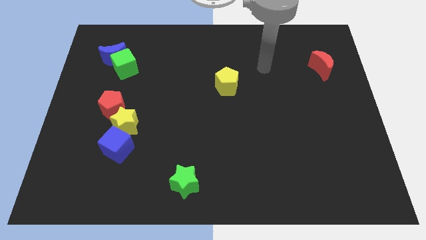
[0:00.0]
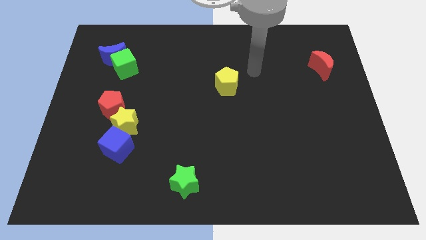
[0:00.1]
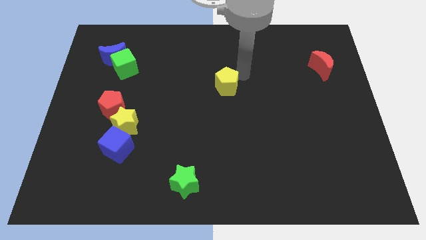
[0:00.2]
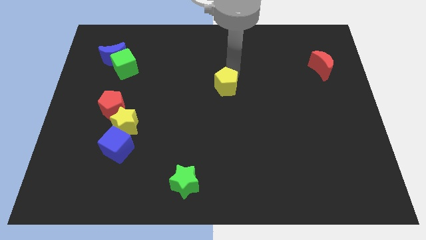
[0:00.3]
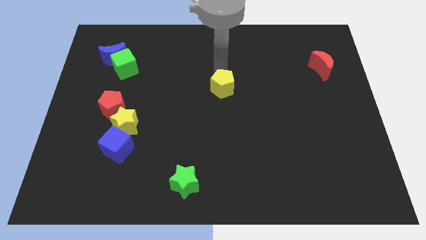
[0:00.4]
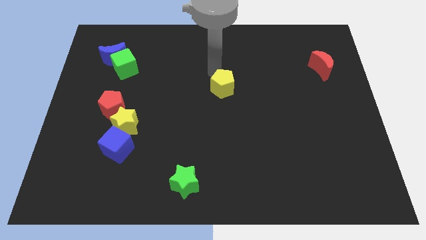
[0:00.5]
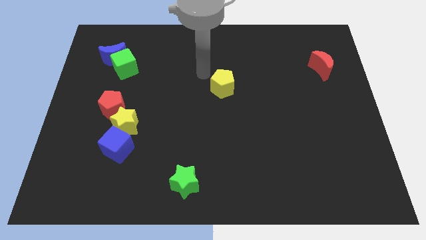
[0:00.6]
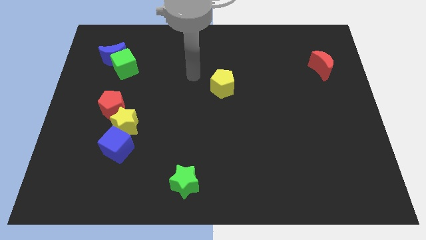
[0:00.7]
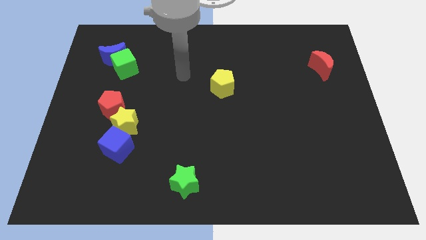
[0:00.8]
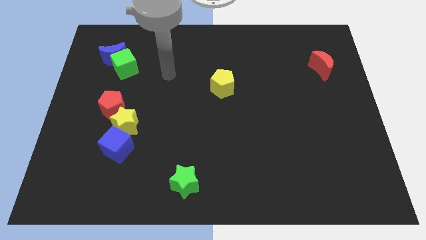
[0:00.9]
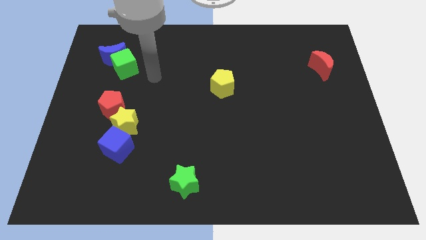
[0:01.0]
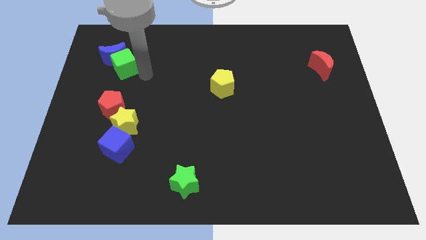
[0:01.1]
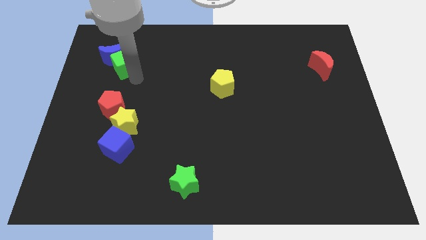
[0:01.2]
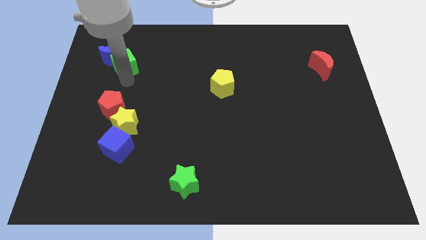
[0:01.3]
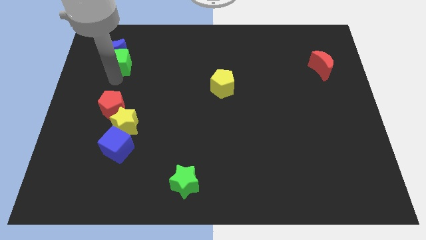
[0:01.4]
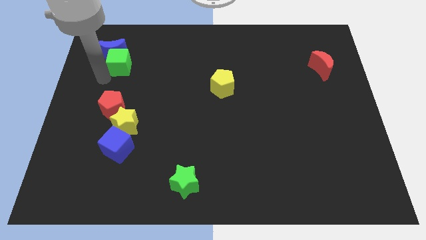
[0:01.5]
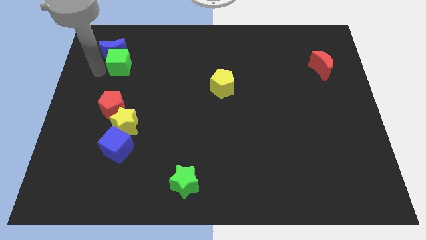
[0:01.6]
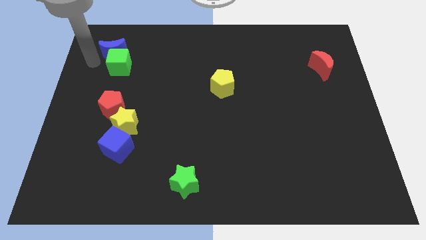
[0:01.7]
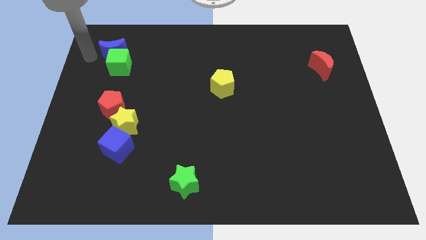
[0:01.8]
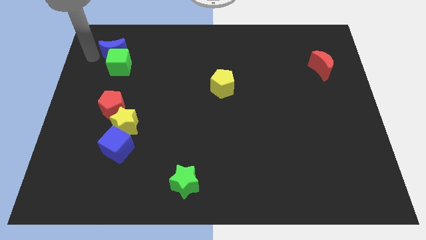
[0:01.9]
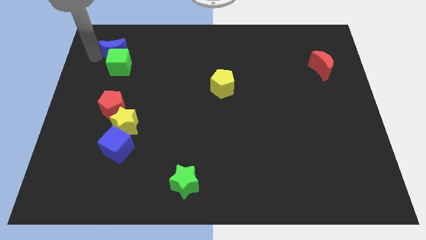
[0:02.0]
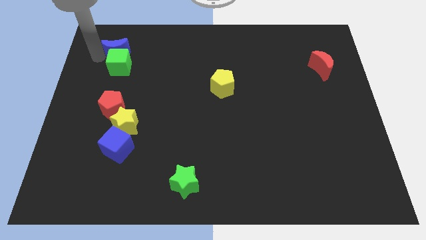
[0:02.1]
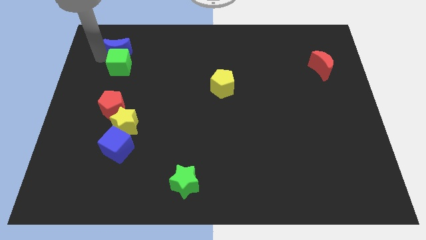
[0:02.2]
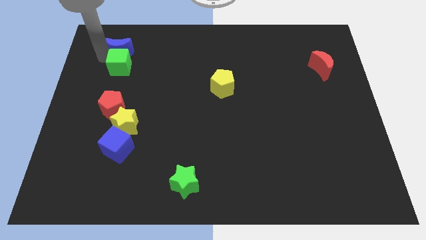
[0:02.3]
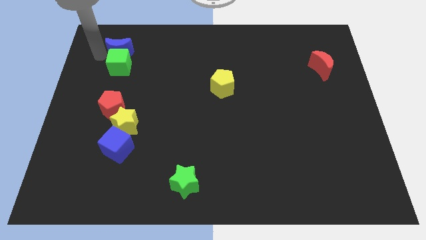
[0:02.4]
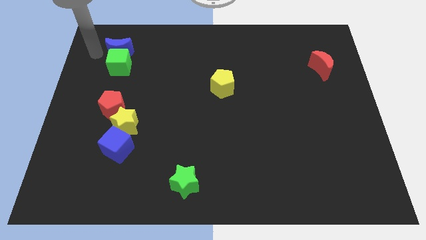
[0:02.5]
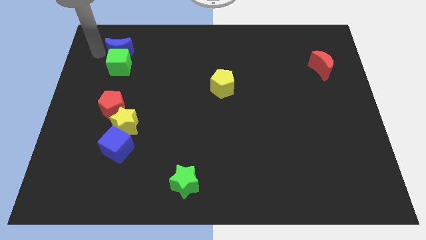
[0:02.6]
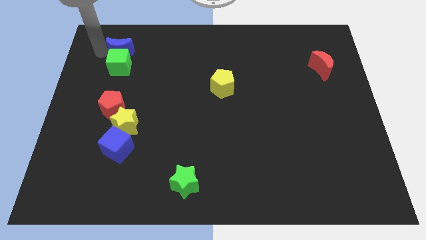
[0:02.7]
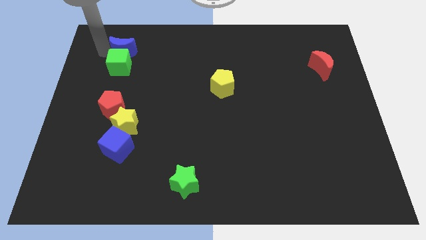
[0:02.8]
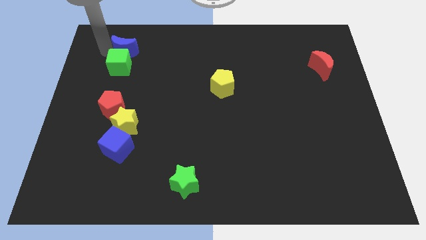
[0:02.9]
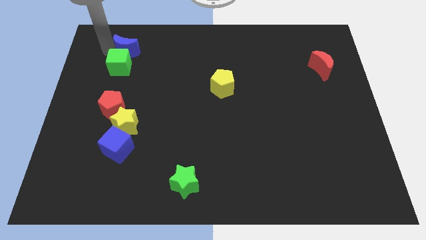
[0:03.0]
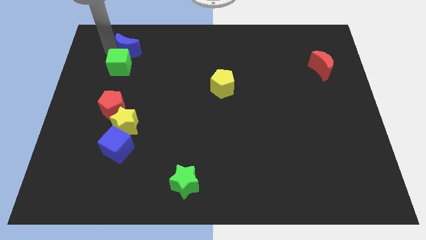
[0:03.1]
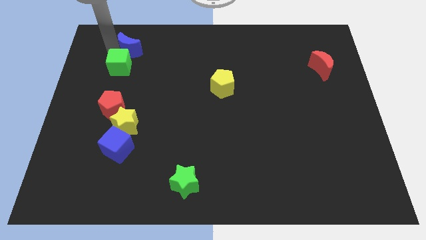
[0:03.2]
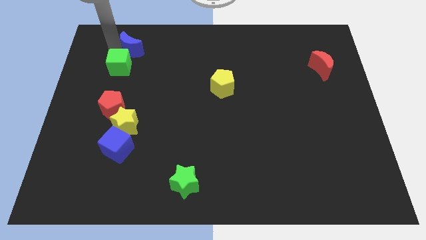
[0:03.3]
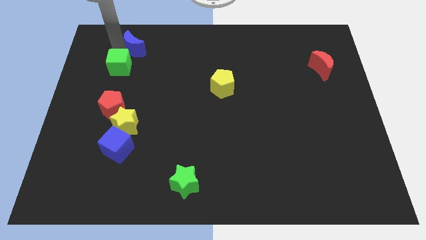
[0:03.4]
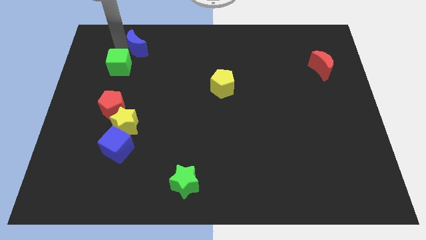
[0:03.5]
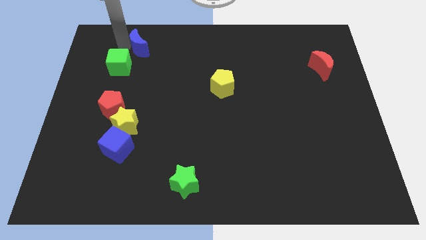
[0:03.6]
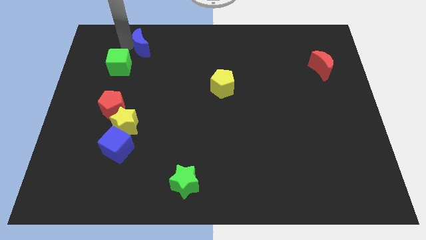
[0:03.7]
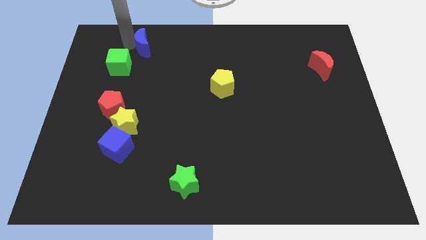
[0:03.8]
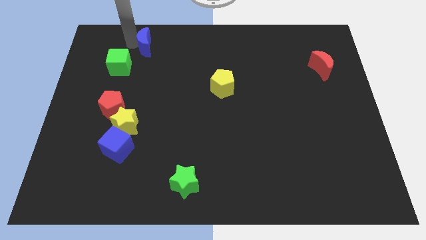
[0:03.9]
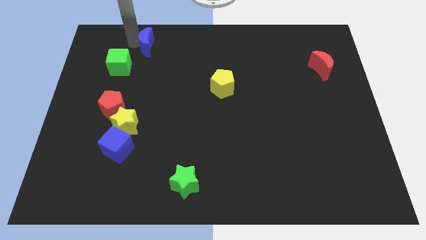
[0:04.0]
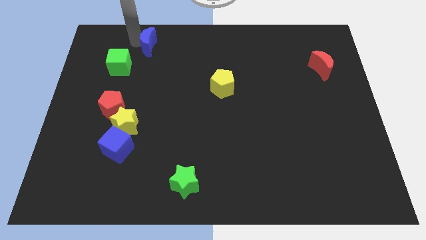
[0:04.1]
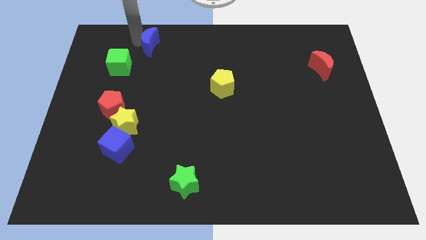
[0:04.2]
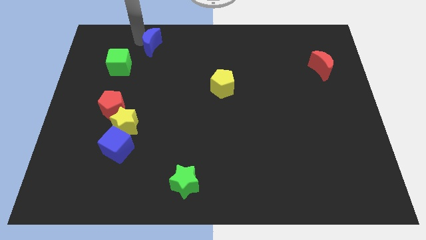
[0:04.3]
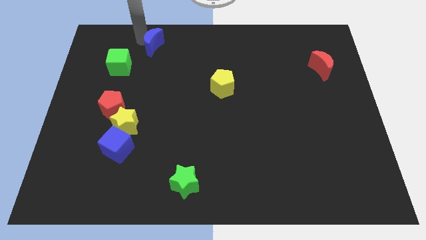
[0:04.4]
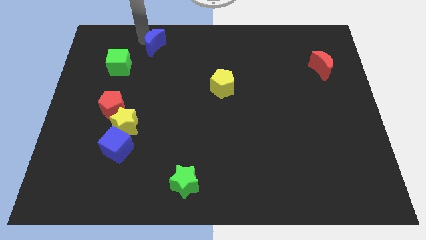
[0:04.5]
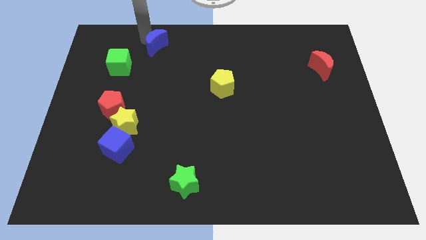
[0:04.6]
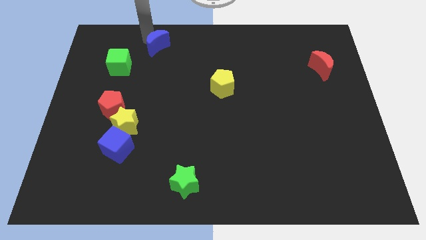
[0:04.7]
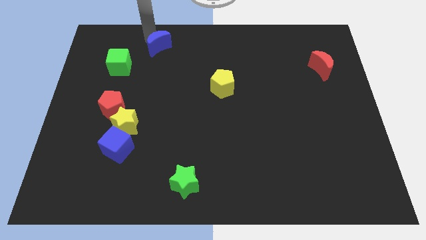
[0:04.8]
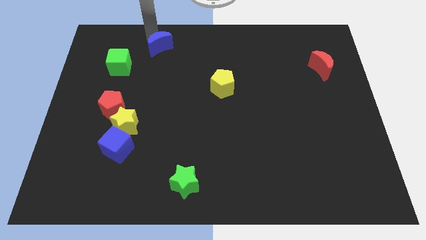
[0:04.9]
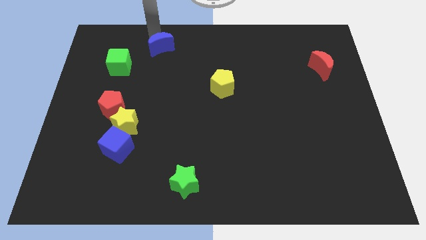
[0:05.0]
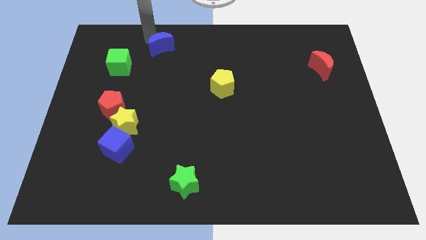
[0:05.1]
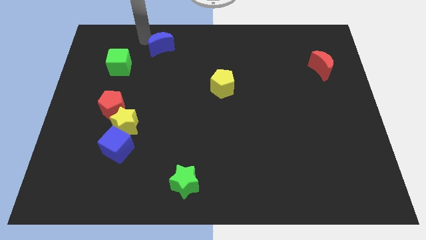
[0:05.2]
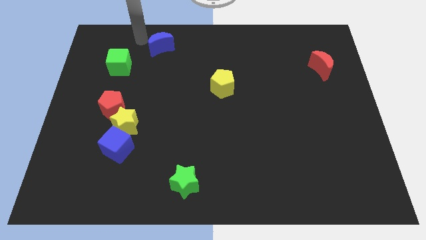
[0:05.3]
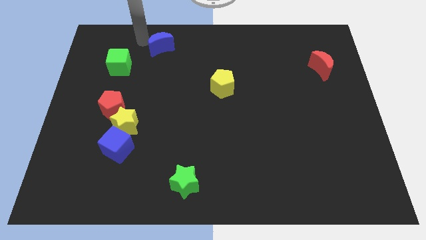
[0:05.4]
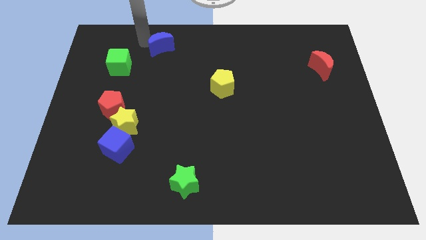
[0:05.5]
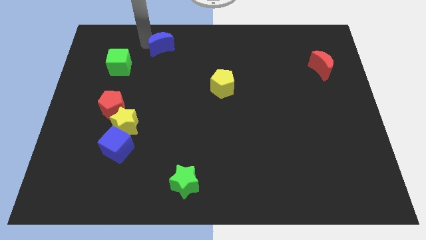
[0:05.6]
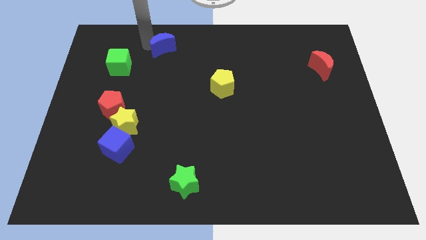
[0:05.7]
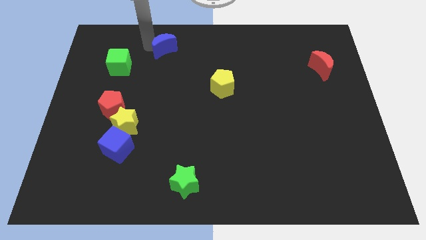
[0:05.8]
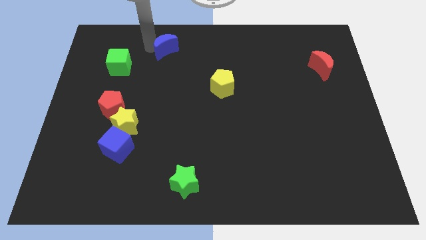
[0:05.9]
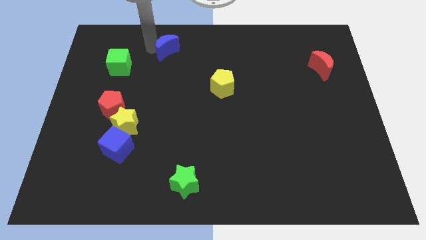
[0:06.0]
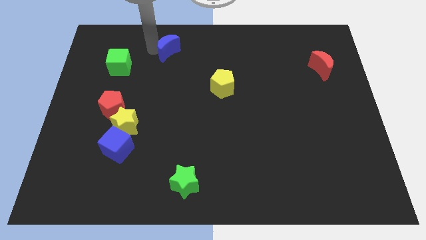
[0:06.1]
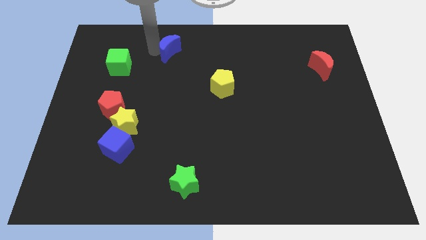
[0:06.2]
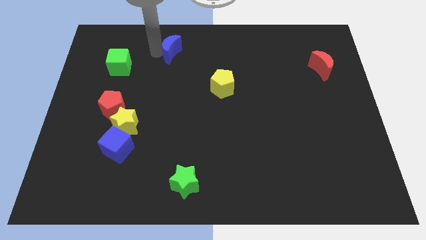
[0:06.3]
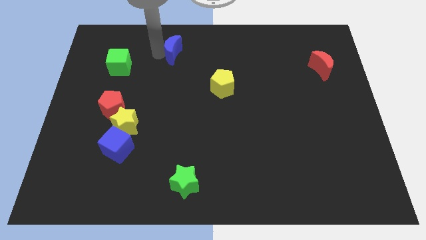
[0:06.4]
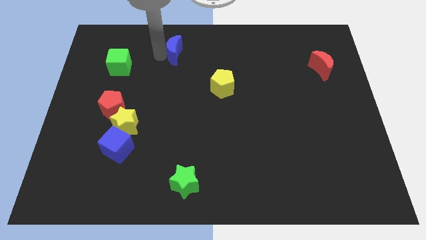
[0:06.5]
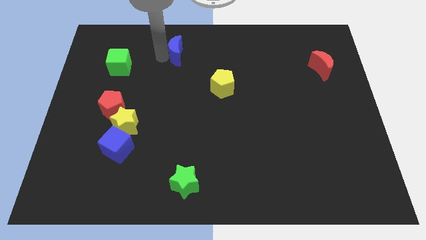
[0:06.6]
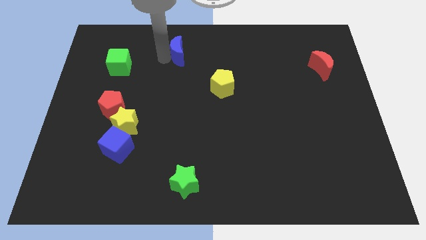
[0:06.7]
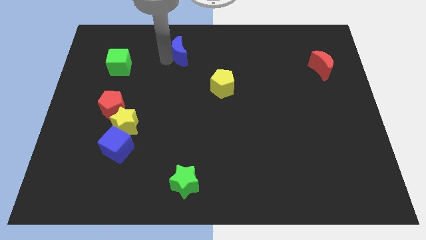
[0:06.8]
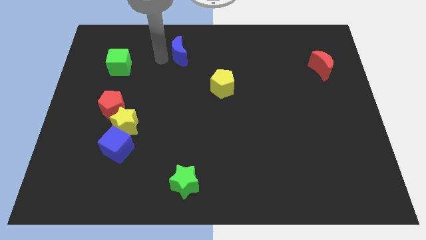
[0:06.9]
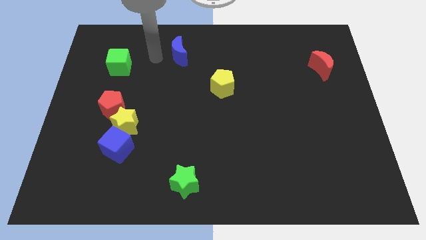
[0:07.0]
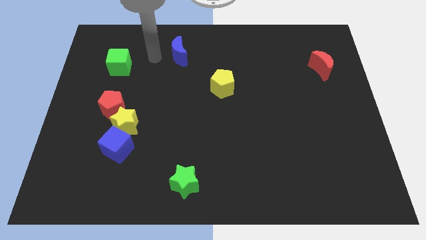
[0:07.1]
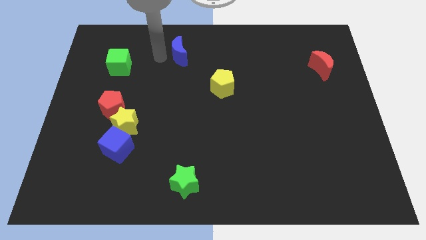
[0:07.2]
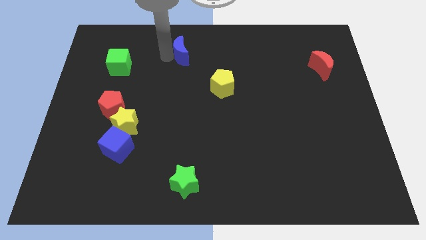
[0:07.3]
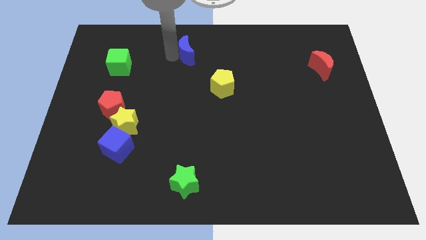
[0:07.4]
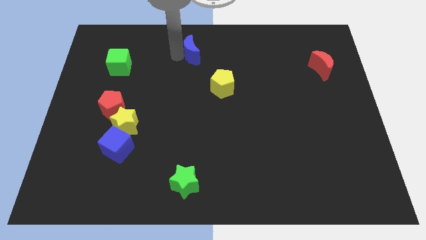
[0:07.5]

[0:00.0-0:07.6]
push the blue moon right

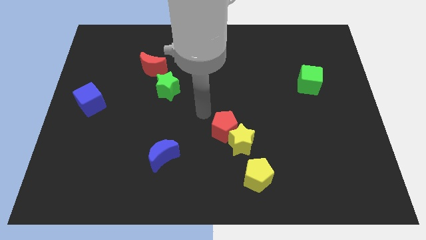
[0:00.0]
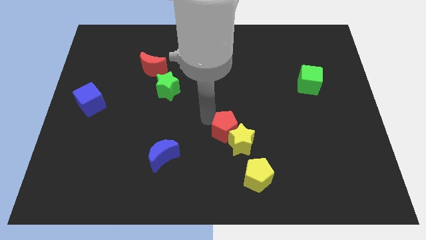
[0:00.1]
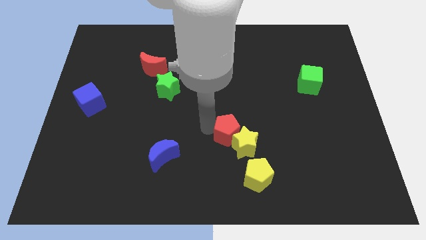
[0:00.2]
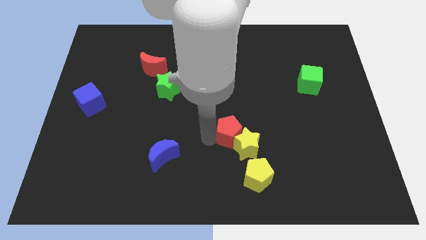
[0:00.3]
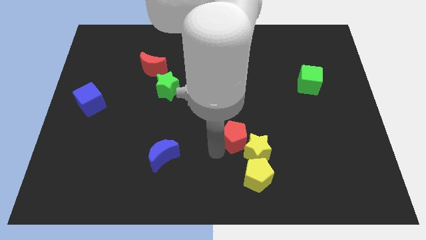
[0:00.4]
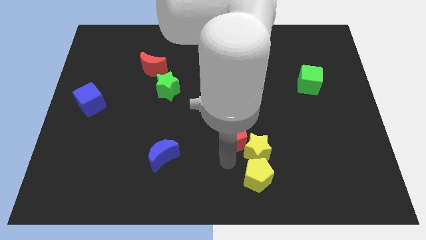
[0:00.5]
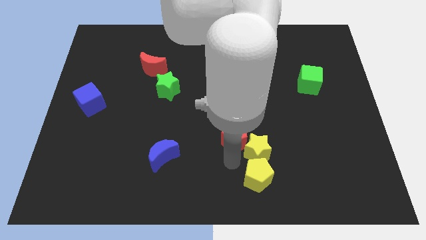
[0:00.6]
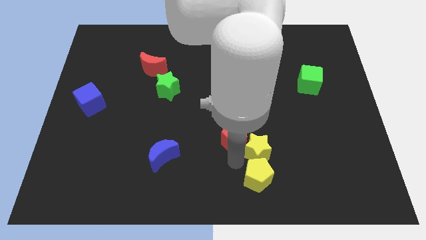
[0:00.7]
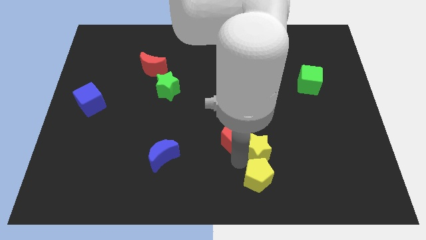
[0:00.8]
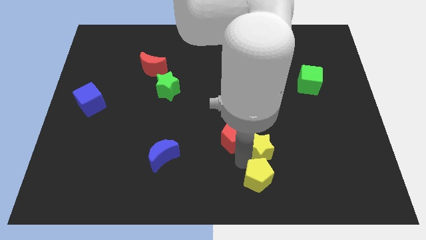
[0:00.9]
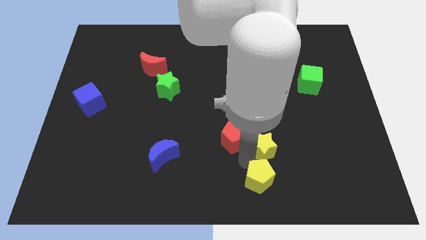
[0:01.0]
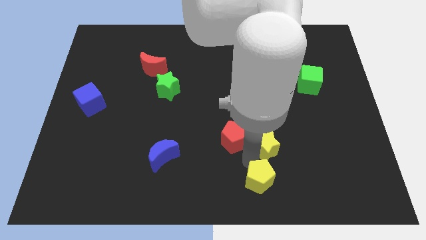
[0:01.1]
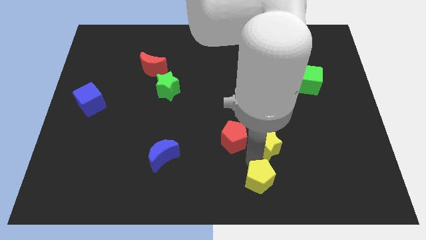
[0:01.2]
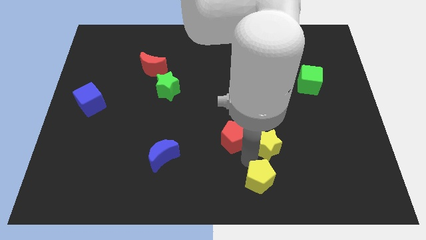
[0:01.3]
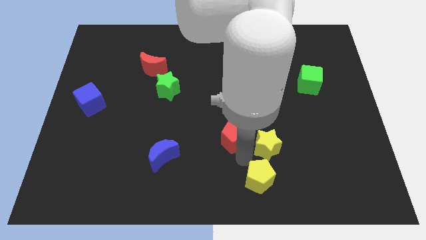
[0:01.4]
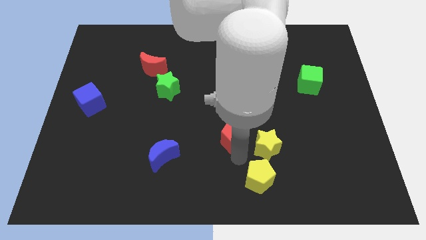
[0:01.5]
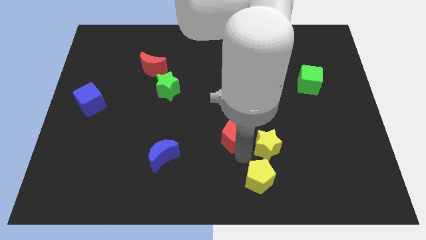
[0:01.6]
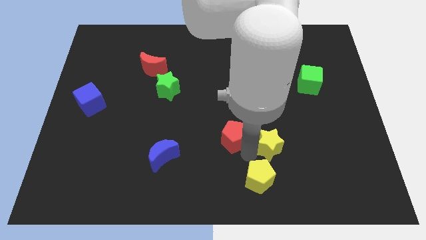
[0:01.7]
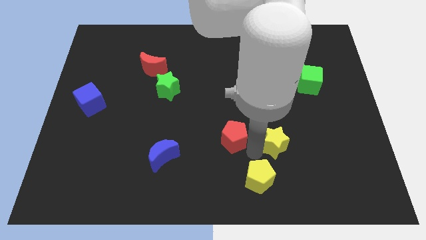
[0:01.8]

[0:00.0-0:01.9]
move the yellow star somewhat to the right
